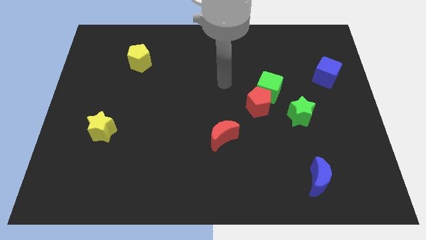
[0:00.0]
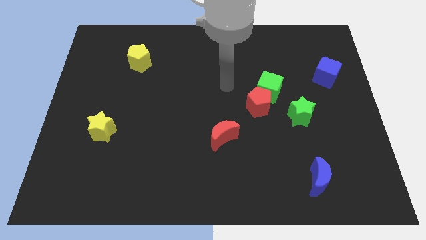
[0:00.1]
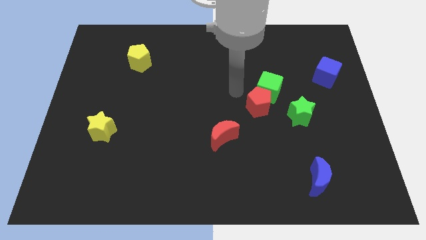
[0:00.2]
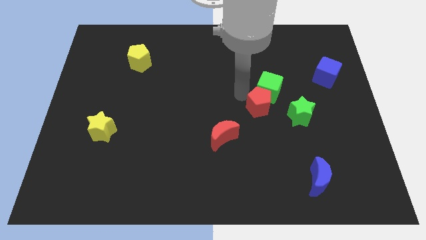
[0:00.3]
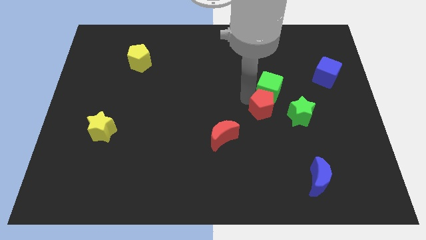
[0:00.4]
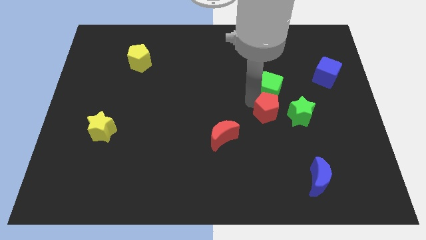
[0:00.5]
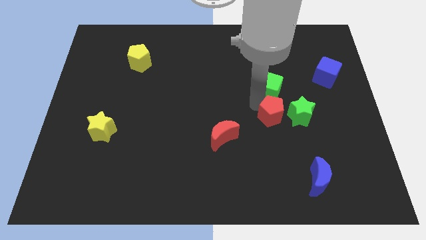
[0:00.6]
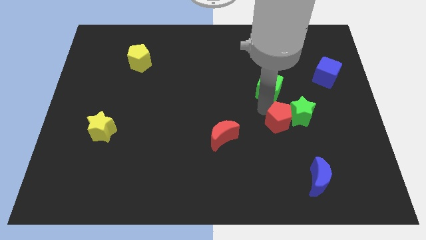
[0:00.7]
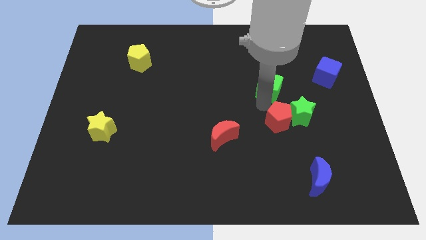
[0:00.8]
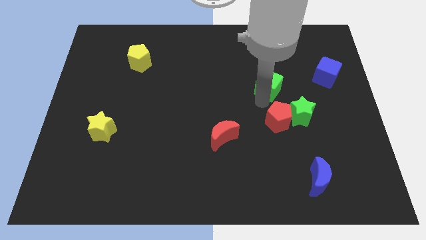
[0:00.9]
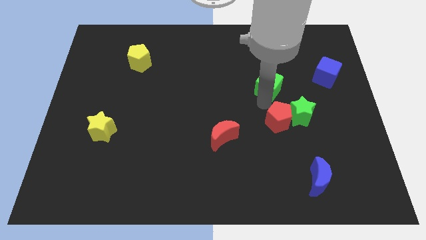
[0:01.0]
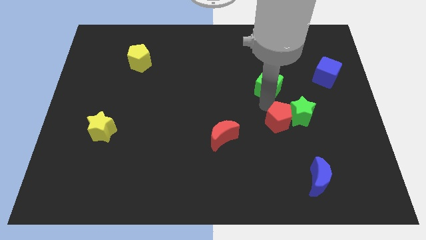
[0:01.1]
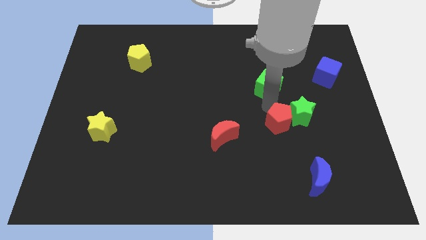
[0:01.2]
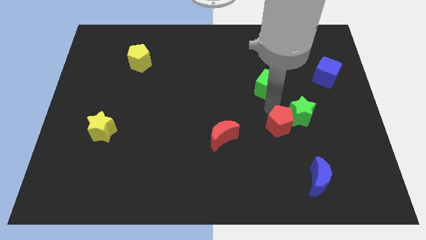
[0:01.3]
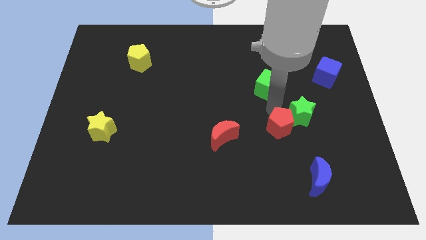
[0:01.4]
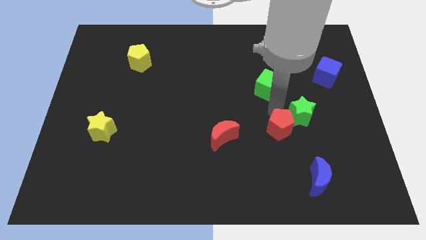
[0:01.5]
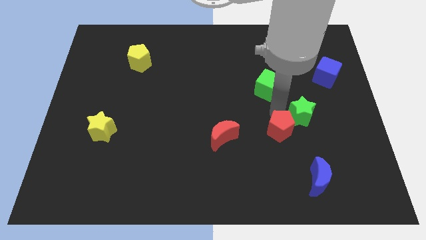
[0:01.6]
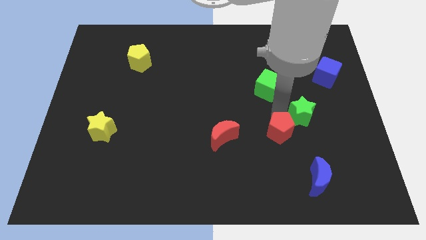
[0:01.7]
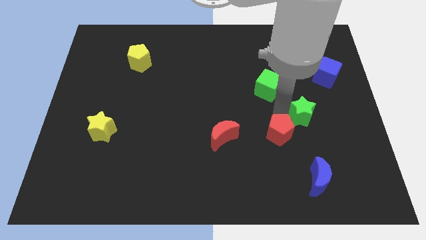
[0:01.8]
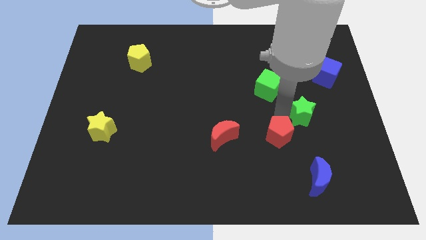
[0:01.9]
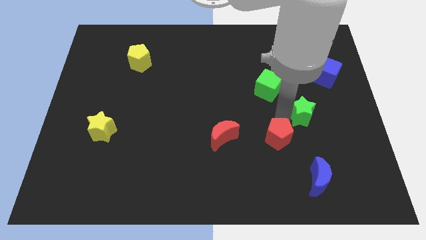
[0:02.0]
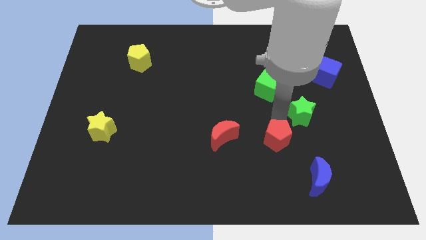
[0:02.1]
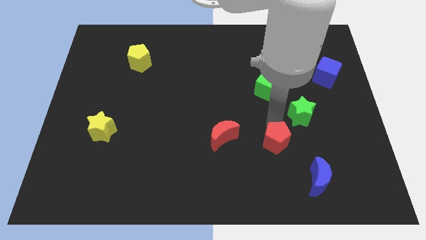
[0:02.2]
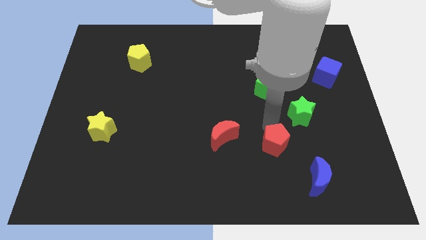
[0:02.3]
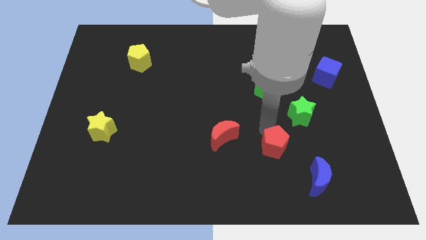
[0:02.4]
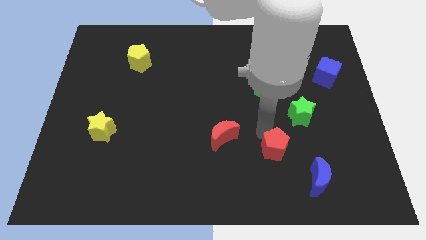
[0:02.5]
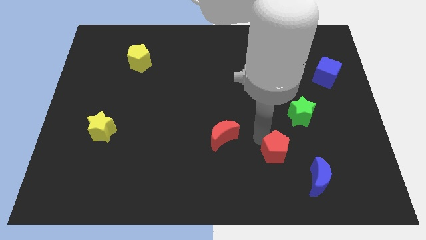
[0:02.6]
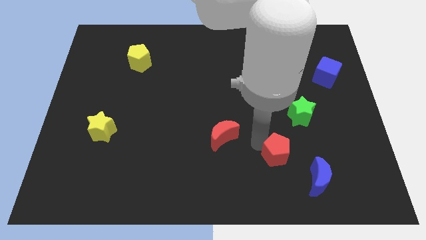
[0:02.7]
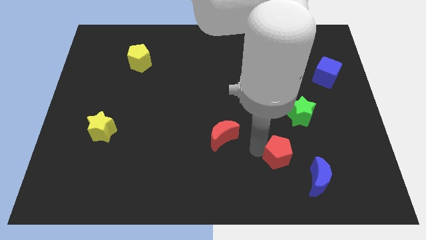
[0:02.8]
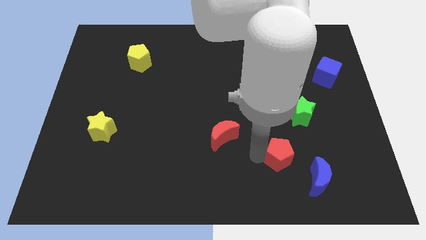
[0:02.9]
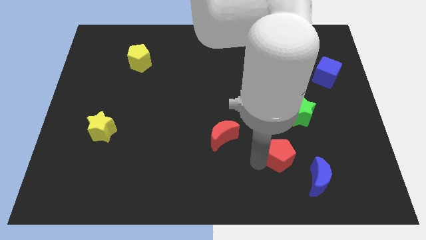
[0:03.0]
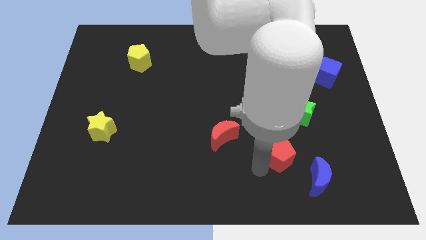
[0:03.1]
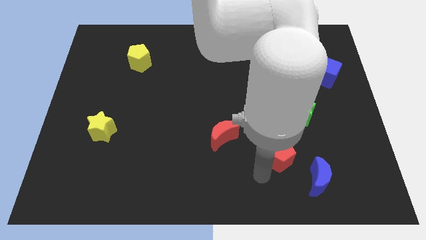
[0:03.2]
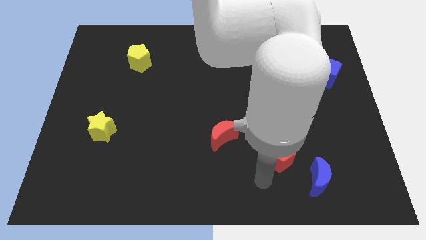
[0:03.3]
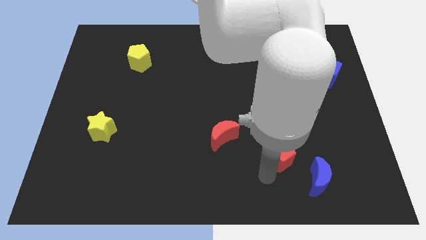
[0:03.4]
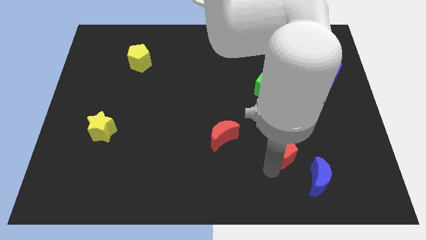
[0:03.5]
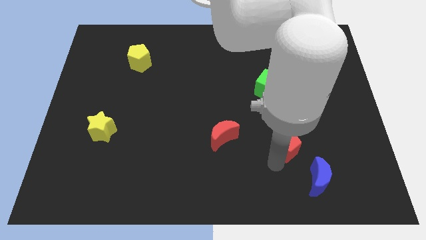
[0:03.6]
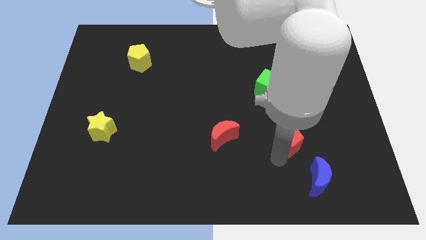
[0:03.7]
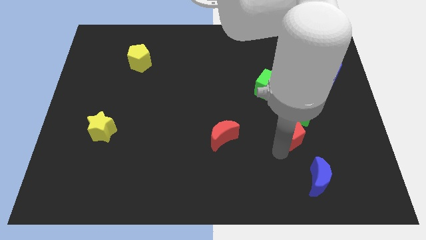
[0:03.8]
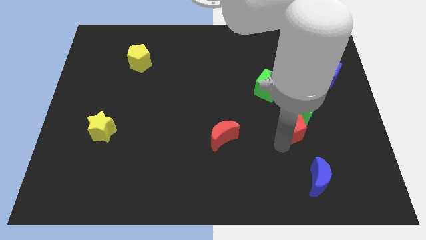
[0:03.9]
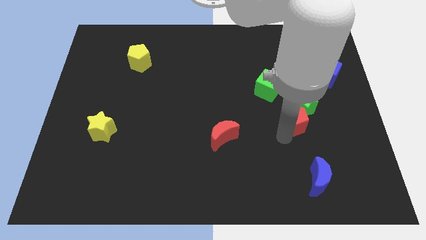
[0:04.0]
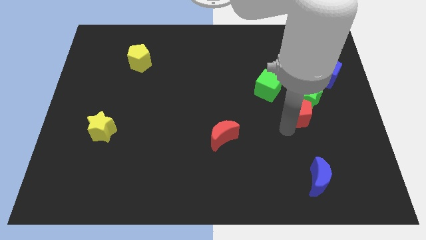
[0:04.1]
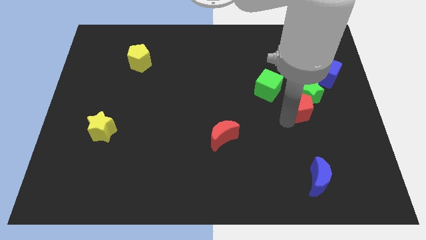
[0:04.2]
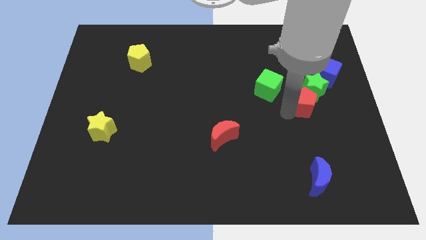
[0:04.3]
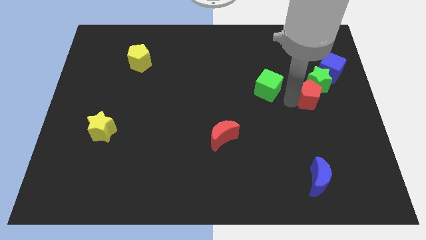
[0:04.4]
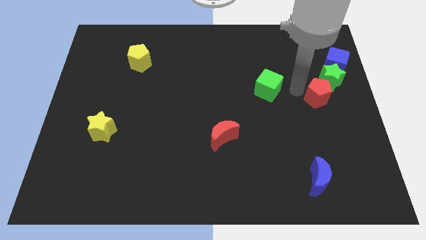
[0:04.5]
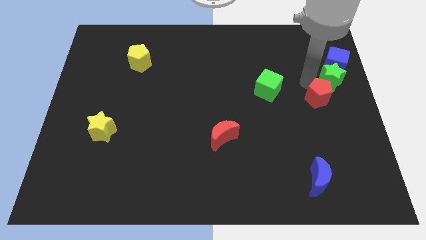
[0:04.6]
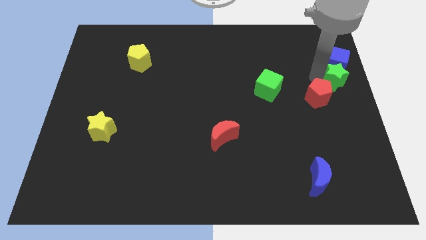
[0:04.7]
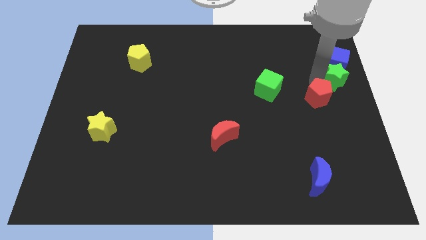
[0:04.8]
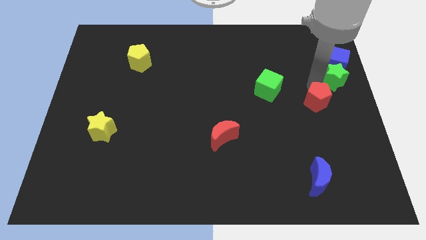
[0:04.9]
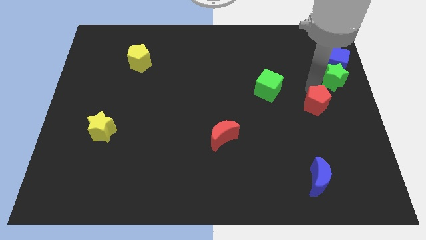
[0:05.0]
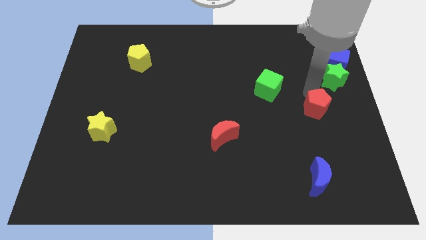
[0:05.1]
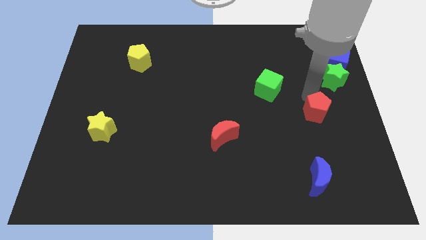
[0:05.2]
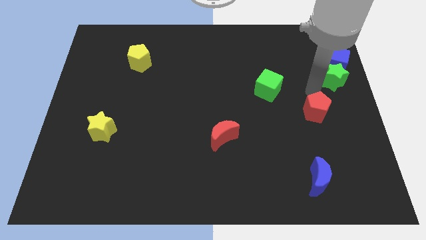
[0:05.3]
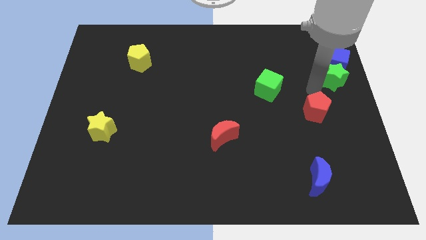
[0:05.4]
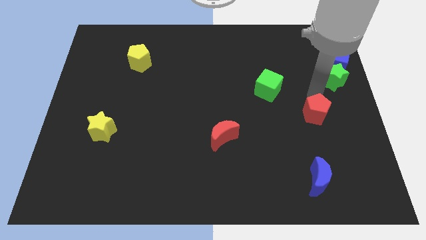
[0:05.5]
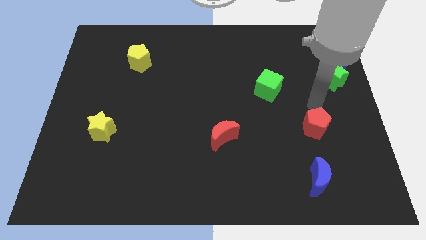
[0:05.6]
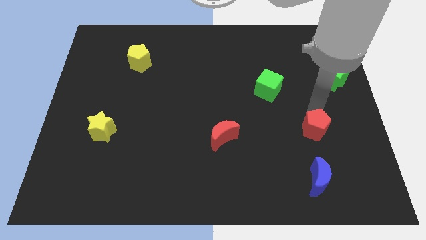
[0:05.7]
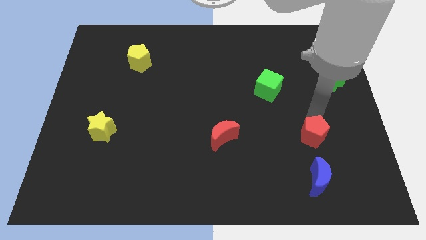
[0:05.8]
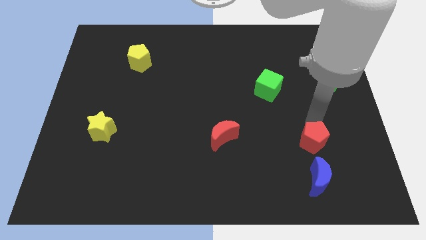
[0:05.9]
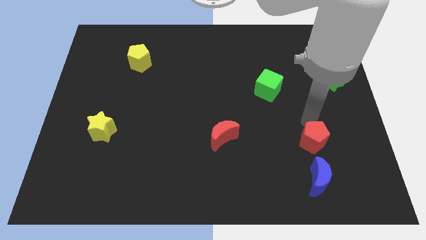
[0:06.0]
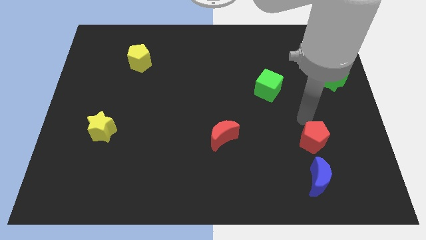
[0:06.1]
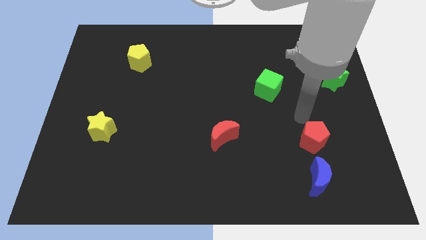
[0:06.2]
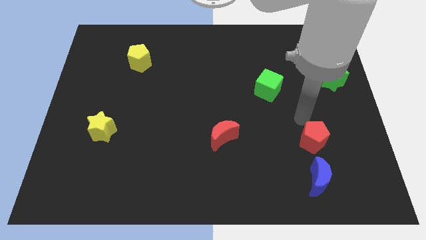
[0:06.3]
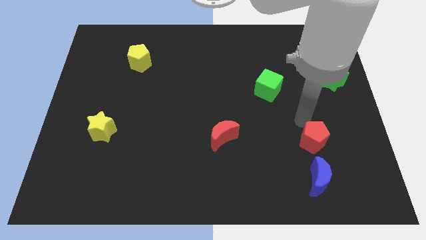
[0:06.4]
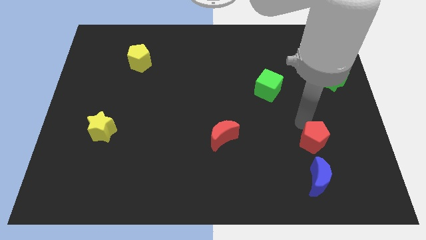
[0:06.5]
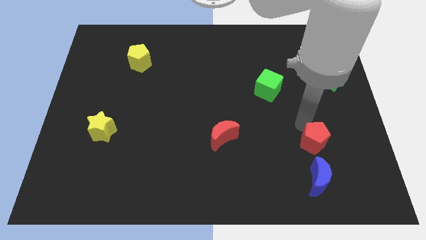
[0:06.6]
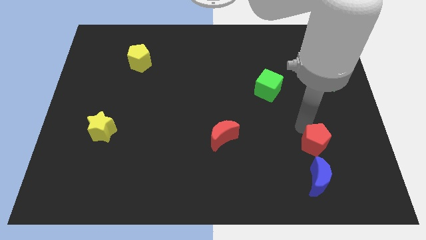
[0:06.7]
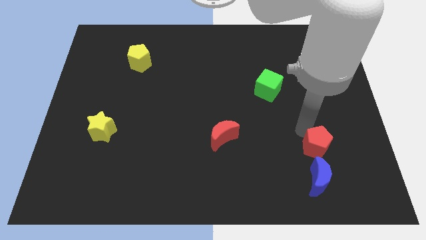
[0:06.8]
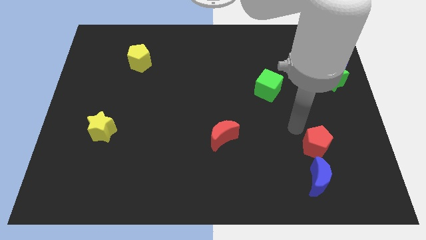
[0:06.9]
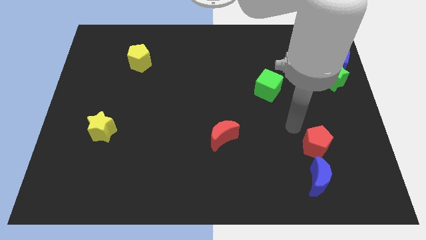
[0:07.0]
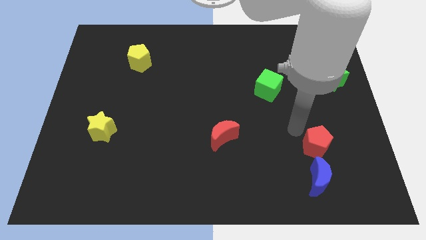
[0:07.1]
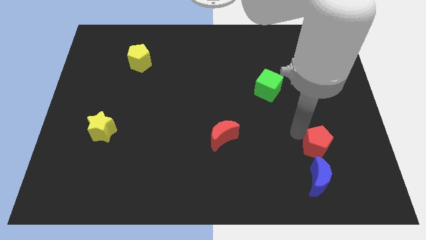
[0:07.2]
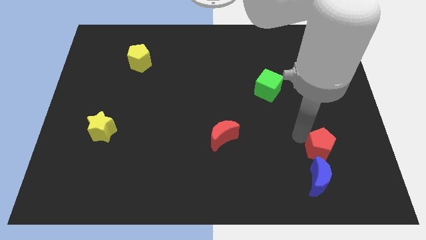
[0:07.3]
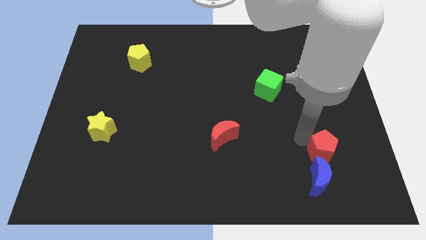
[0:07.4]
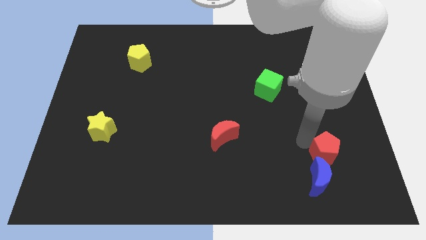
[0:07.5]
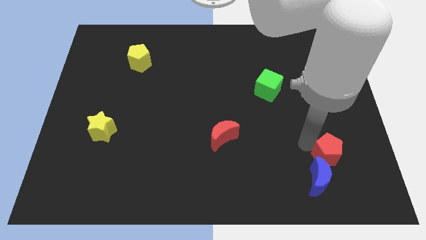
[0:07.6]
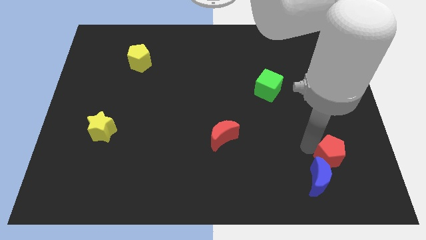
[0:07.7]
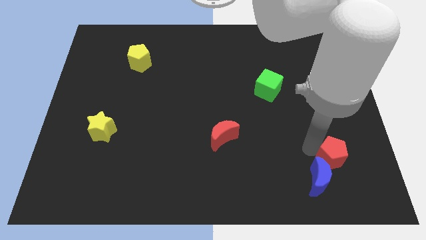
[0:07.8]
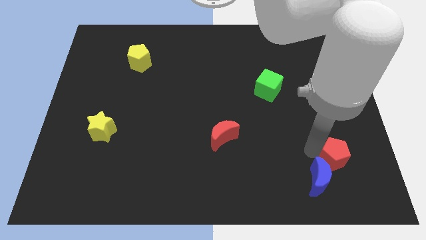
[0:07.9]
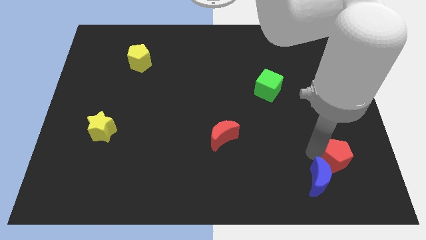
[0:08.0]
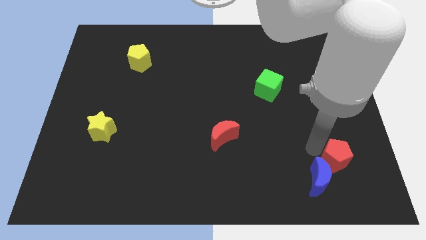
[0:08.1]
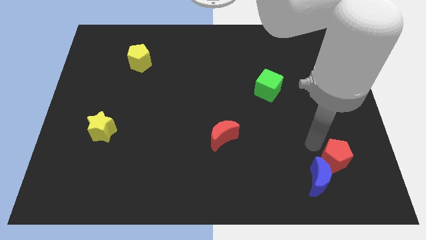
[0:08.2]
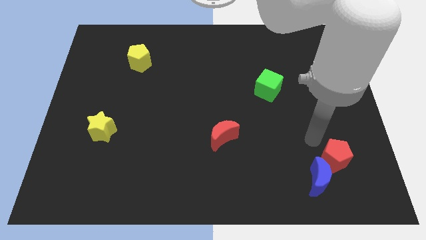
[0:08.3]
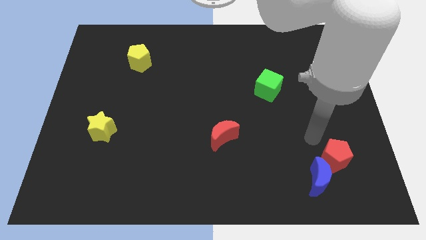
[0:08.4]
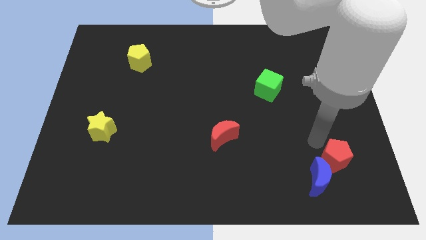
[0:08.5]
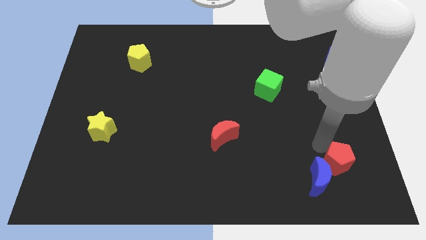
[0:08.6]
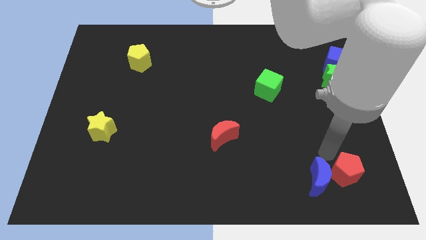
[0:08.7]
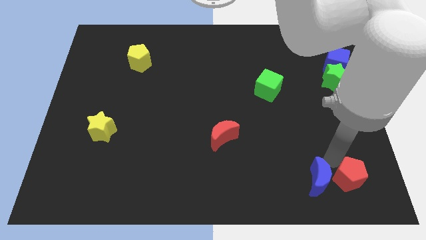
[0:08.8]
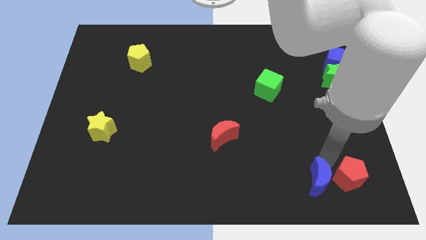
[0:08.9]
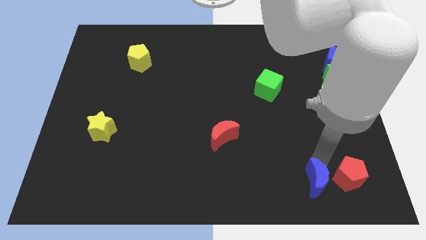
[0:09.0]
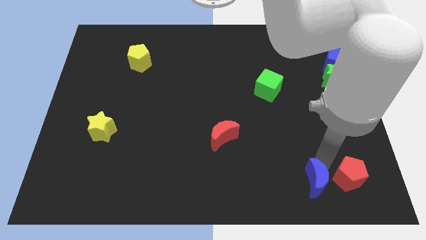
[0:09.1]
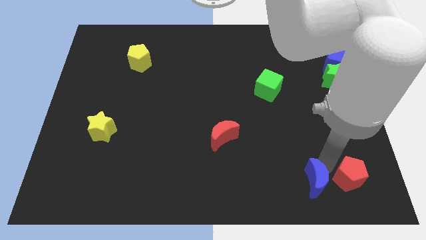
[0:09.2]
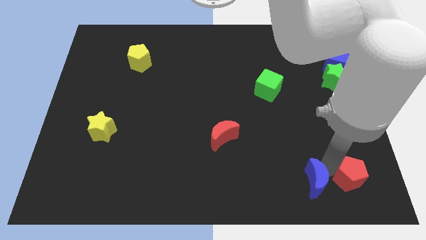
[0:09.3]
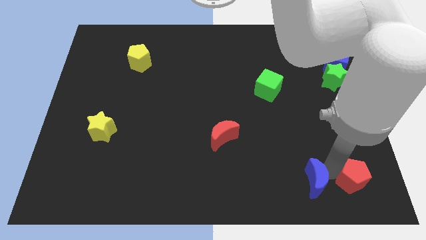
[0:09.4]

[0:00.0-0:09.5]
slide the red pentagon to the bottom right corner
